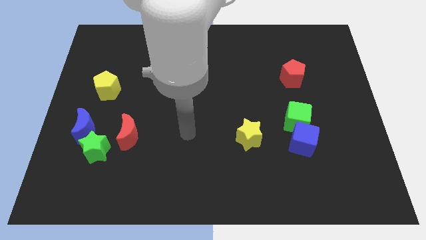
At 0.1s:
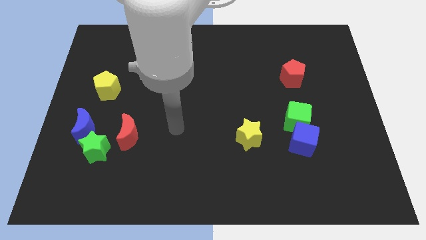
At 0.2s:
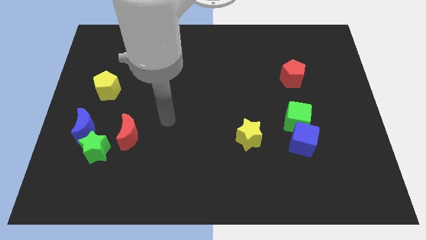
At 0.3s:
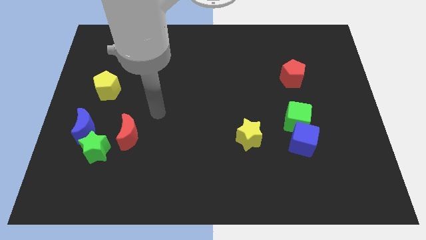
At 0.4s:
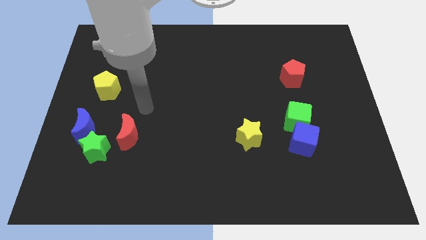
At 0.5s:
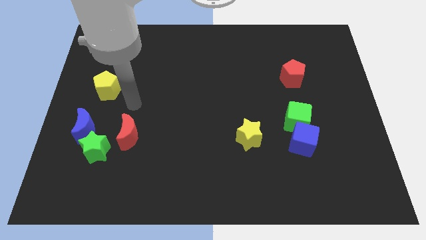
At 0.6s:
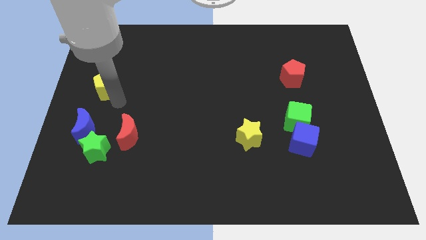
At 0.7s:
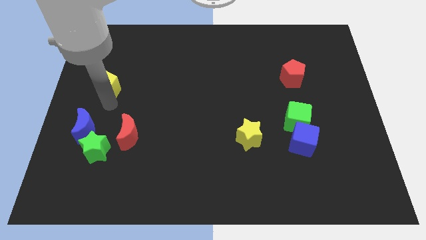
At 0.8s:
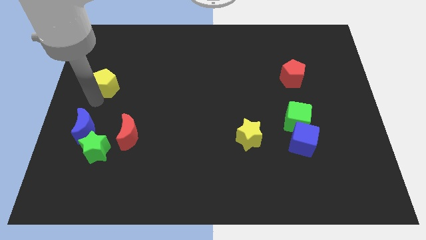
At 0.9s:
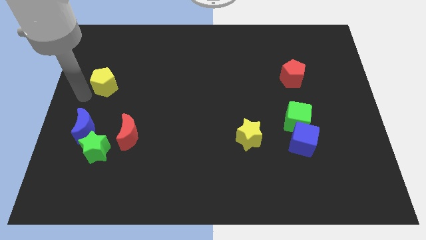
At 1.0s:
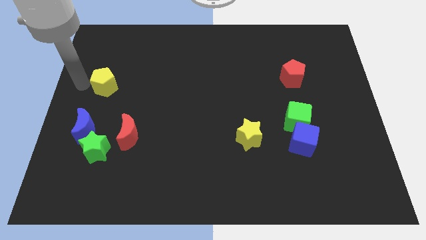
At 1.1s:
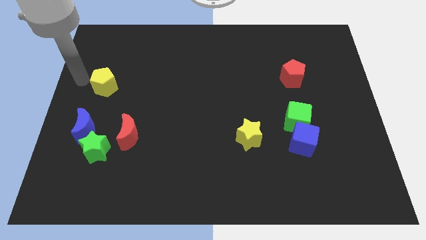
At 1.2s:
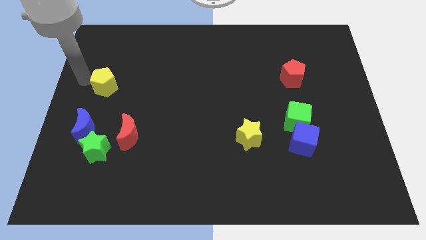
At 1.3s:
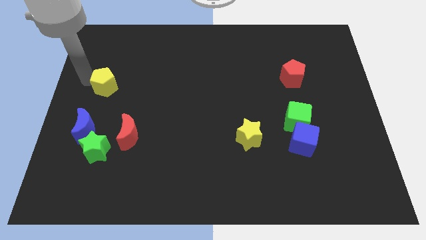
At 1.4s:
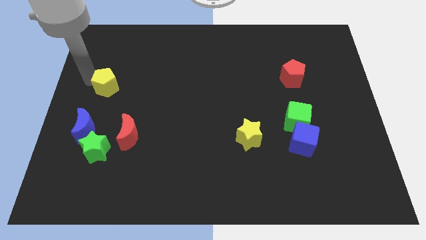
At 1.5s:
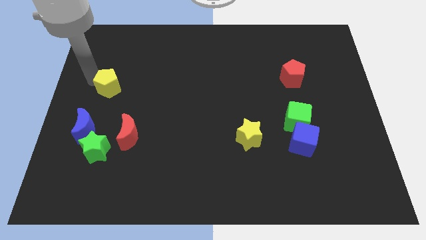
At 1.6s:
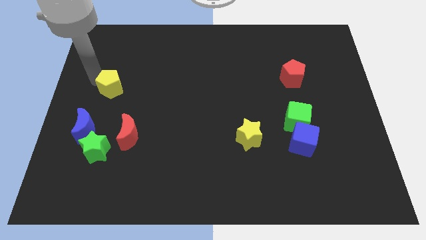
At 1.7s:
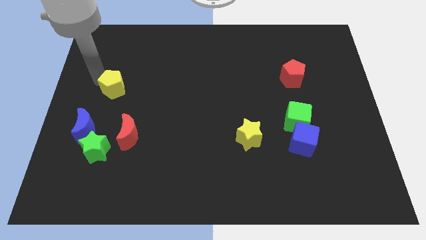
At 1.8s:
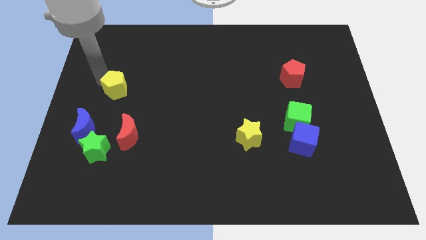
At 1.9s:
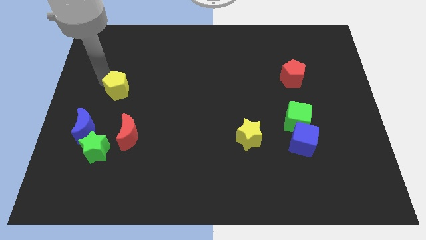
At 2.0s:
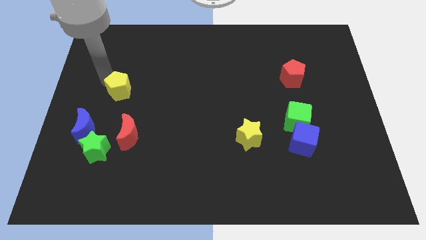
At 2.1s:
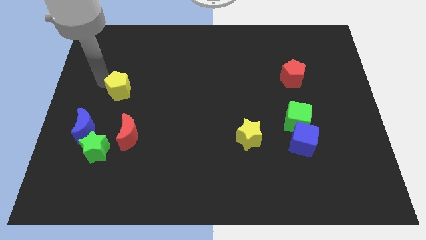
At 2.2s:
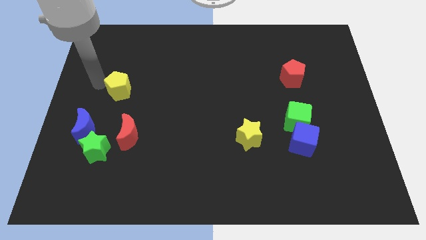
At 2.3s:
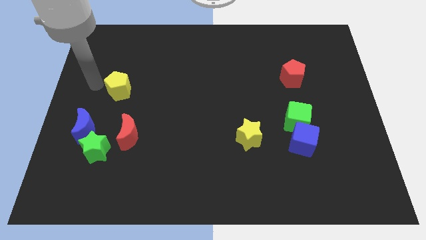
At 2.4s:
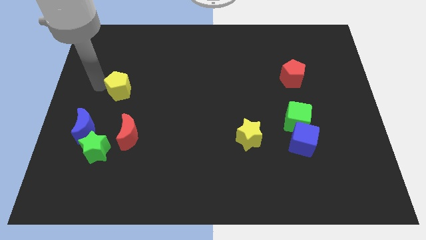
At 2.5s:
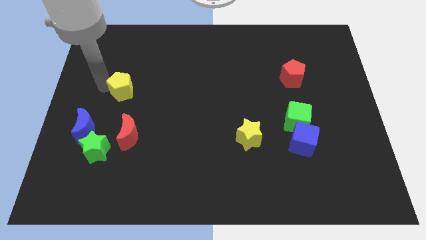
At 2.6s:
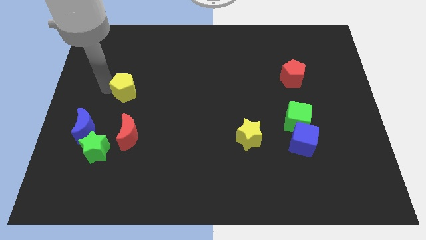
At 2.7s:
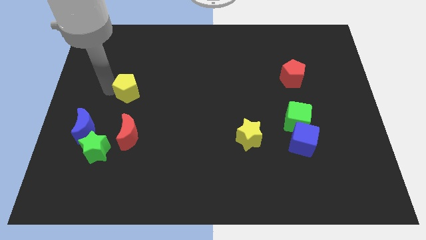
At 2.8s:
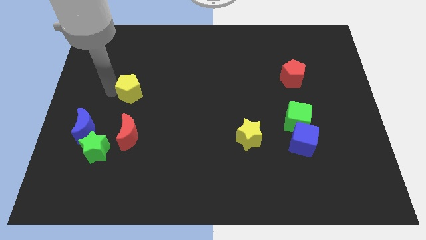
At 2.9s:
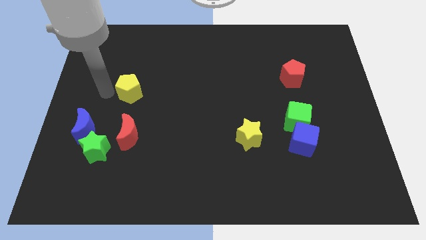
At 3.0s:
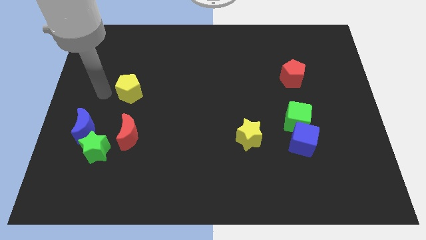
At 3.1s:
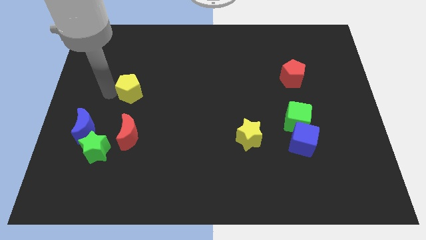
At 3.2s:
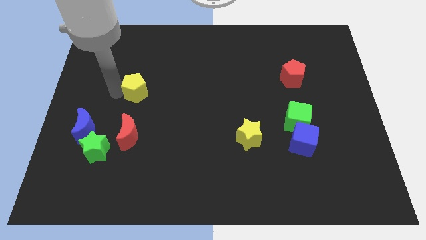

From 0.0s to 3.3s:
push the yellow pentagon to the right a little bit

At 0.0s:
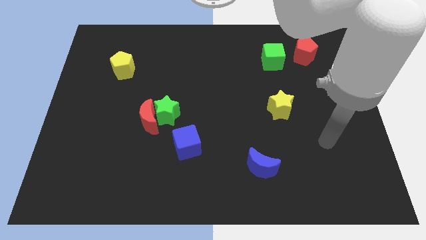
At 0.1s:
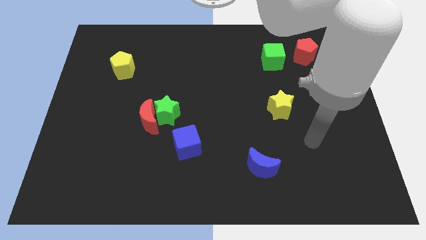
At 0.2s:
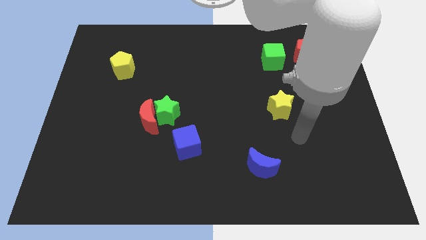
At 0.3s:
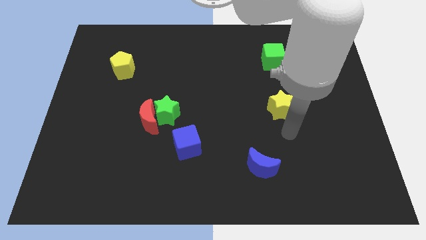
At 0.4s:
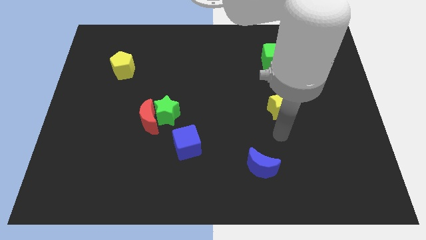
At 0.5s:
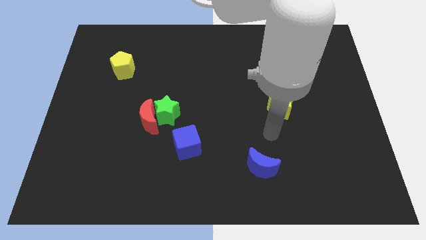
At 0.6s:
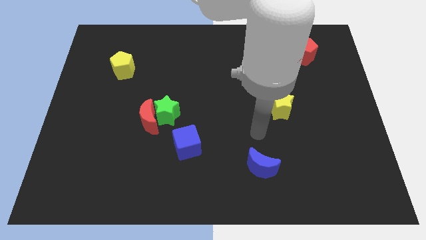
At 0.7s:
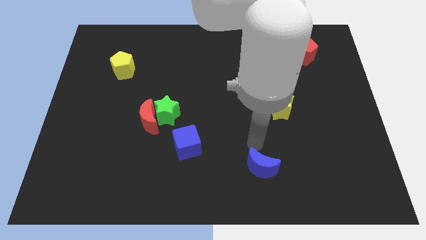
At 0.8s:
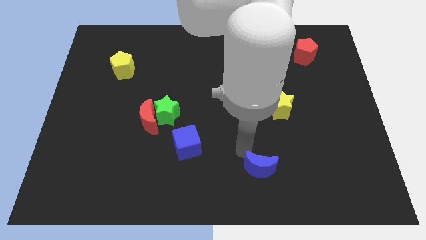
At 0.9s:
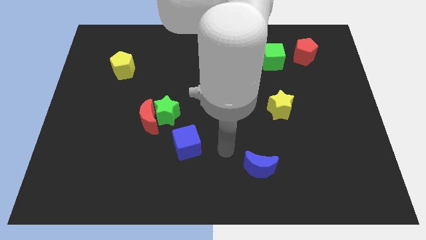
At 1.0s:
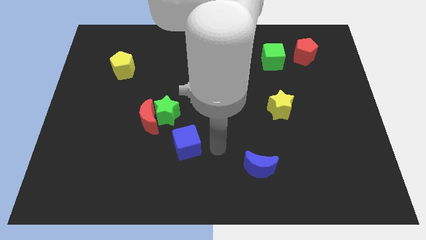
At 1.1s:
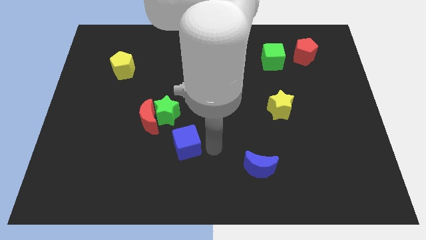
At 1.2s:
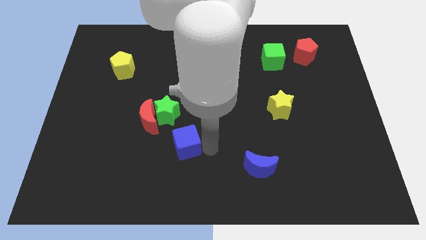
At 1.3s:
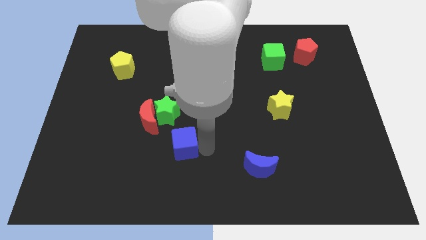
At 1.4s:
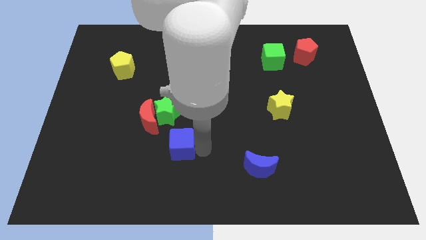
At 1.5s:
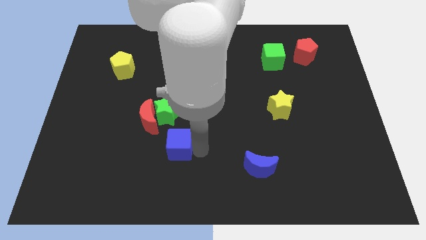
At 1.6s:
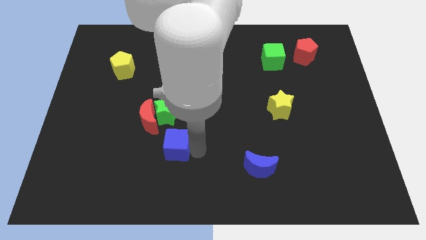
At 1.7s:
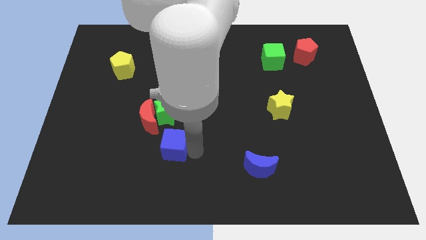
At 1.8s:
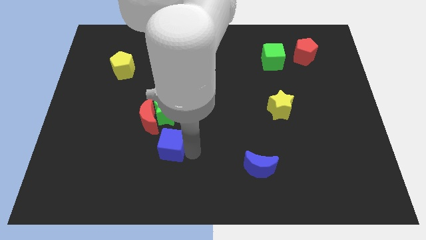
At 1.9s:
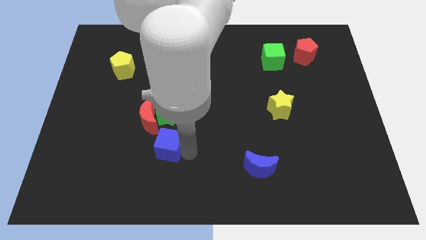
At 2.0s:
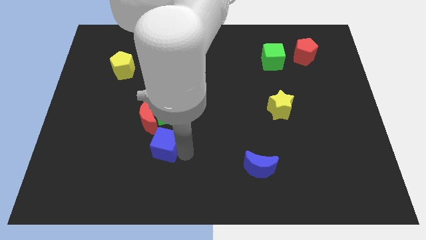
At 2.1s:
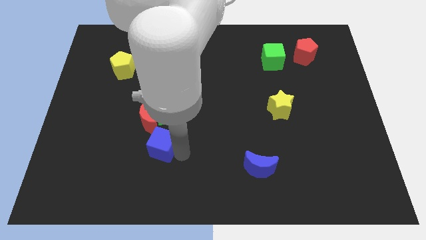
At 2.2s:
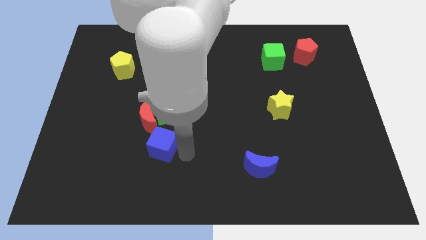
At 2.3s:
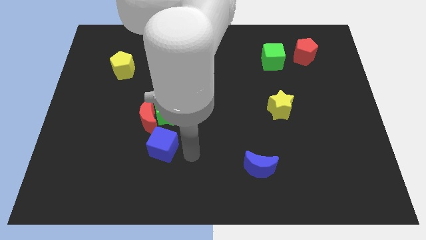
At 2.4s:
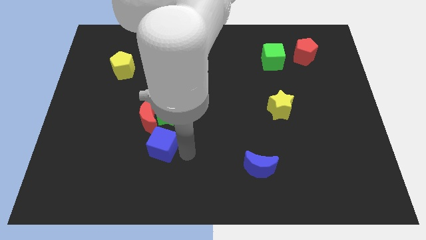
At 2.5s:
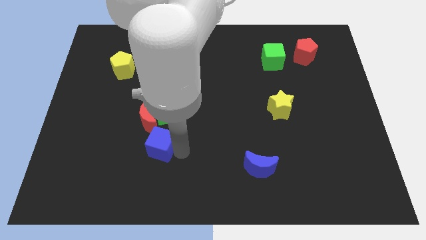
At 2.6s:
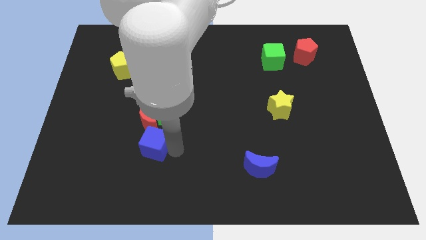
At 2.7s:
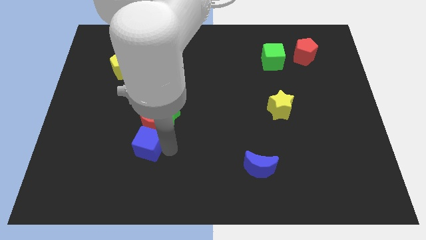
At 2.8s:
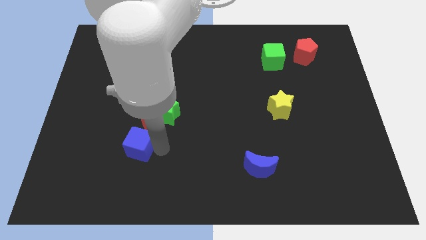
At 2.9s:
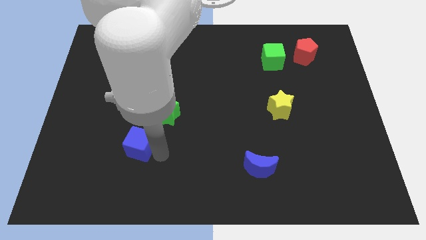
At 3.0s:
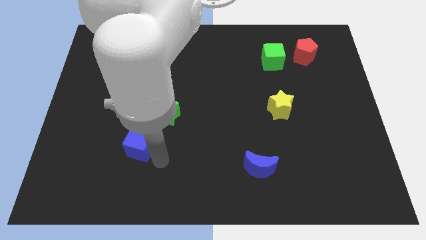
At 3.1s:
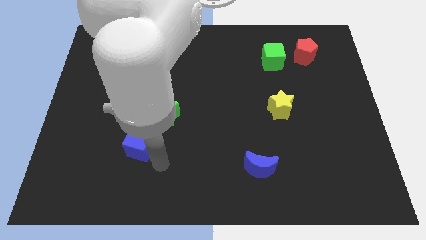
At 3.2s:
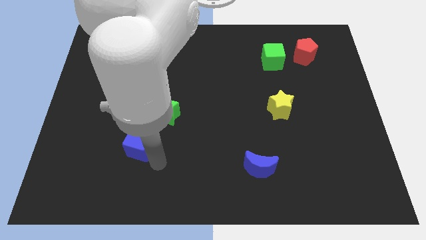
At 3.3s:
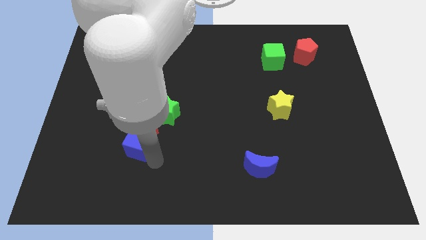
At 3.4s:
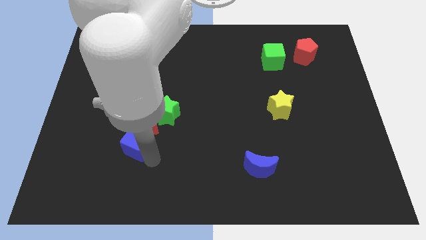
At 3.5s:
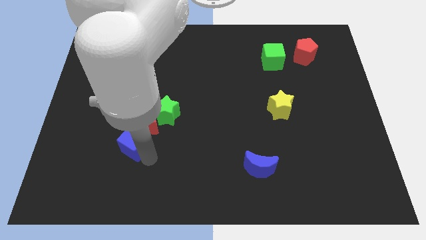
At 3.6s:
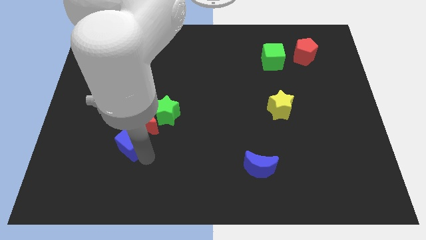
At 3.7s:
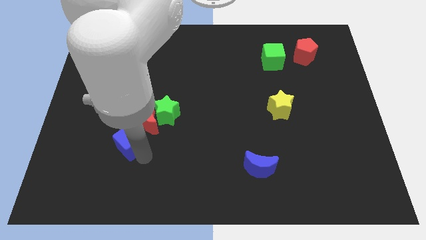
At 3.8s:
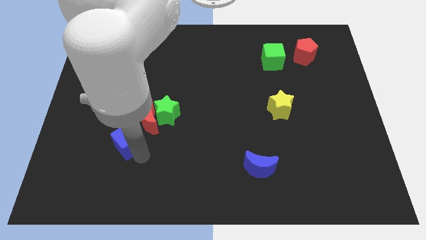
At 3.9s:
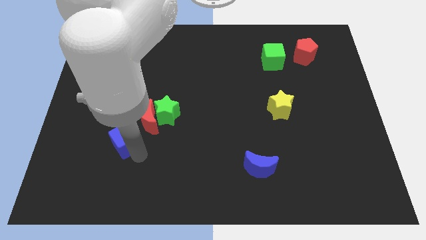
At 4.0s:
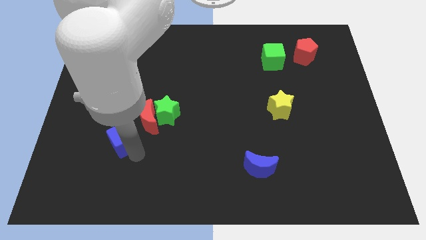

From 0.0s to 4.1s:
slightly slide the blue cube upwards and left

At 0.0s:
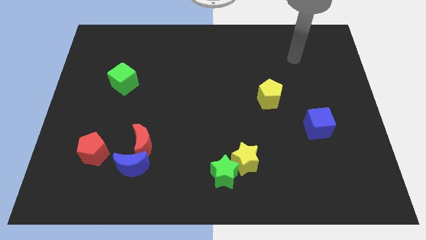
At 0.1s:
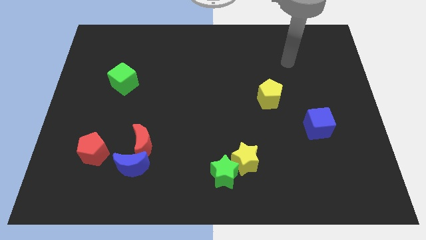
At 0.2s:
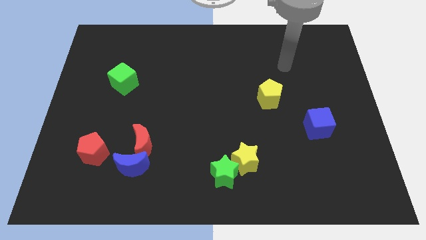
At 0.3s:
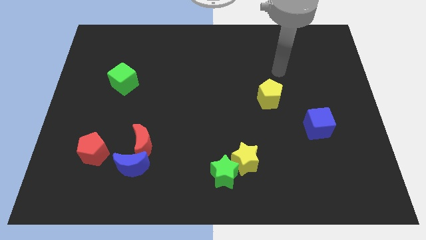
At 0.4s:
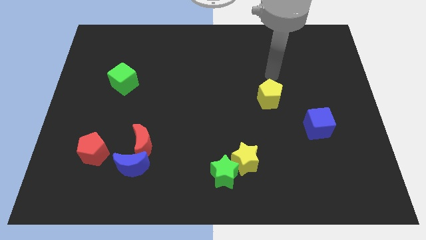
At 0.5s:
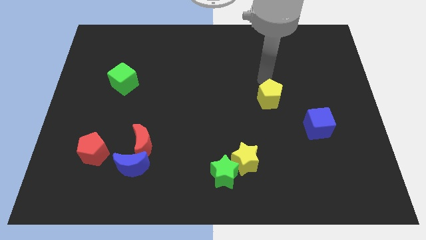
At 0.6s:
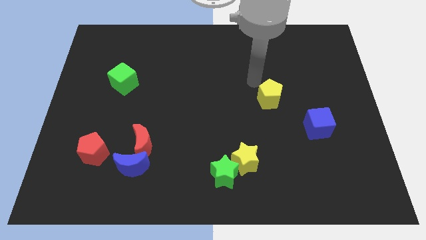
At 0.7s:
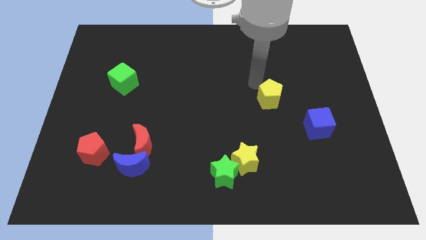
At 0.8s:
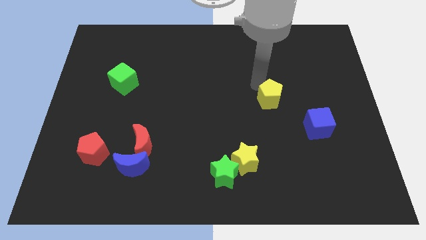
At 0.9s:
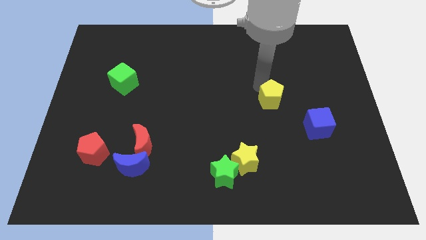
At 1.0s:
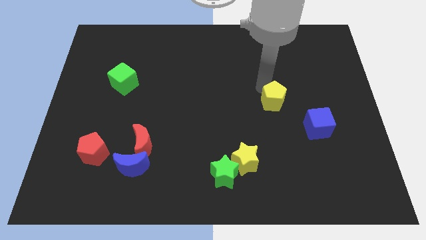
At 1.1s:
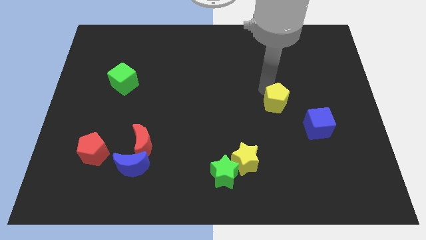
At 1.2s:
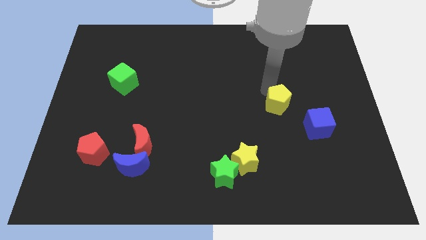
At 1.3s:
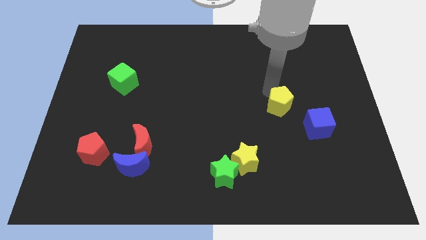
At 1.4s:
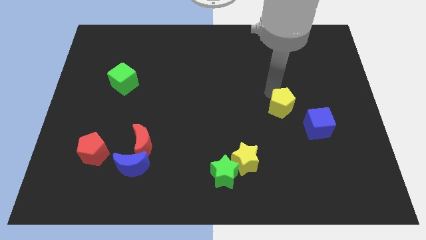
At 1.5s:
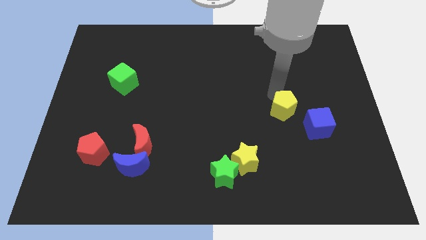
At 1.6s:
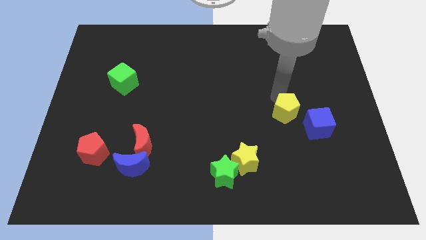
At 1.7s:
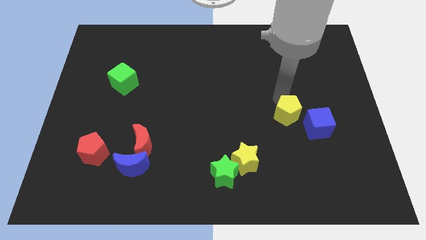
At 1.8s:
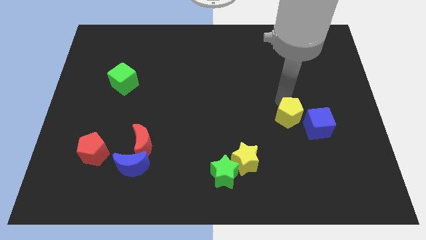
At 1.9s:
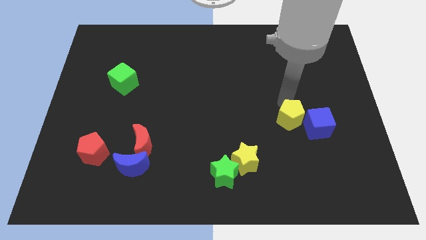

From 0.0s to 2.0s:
move the yellow pentagon a little down and right
